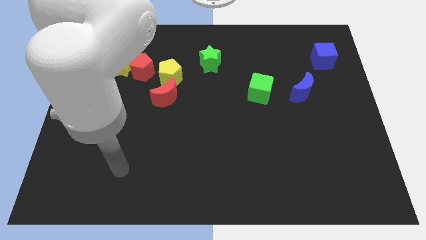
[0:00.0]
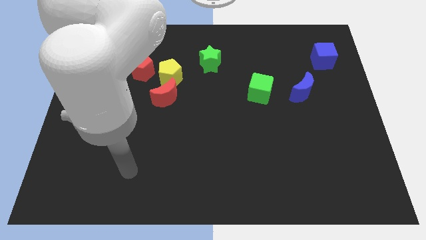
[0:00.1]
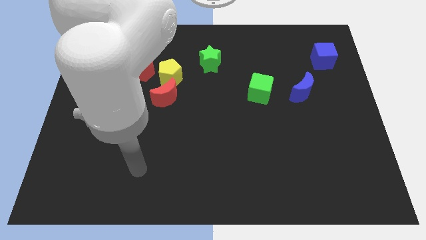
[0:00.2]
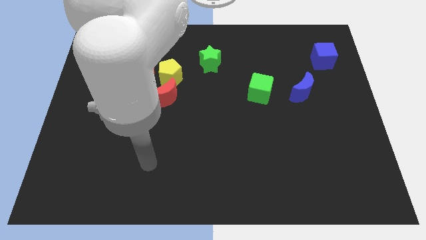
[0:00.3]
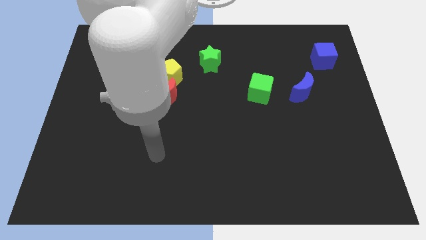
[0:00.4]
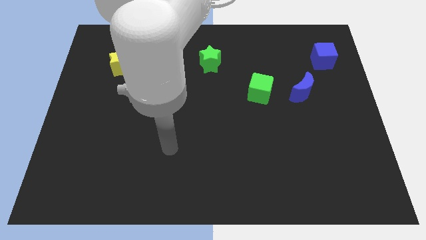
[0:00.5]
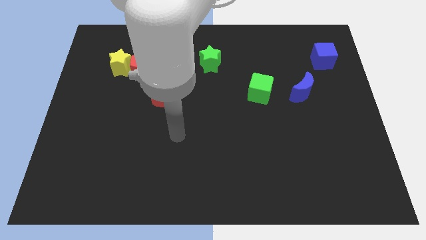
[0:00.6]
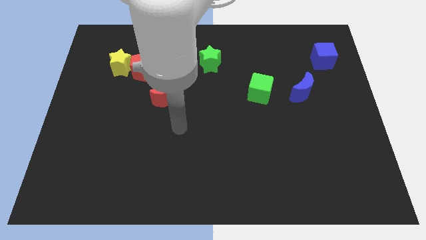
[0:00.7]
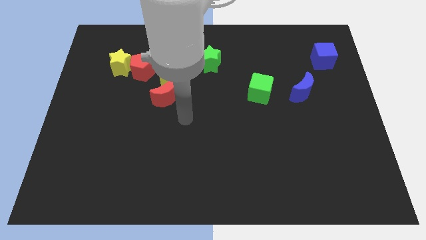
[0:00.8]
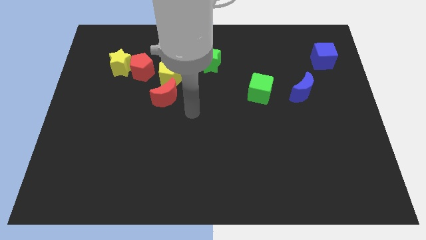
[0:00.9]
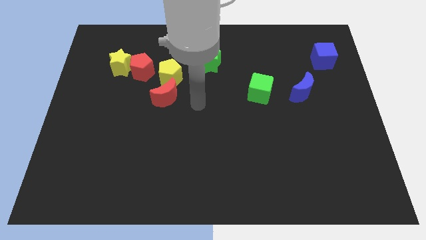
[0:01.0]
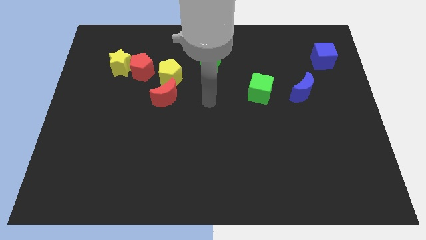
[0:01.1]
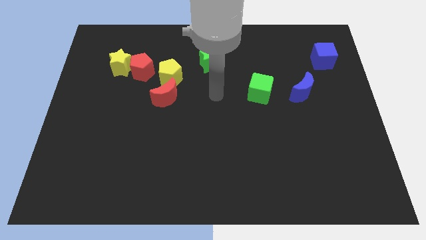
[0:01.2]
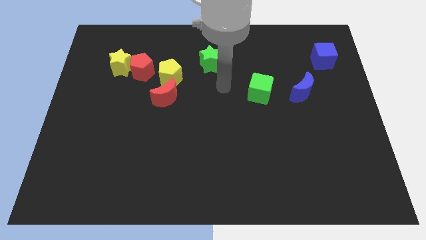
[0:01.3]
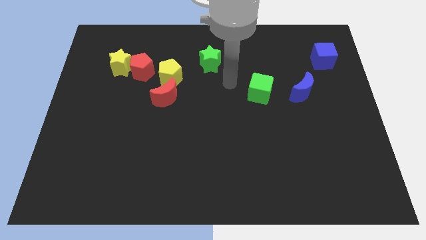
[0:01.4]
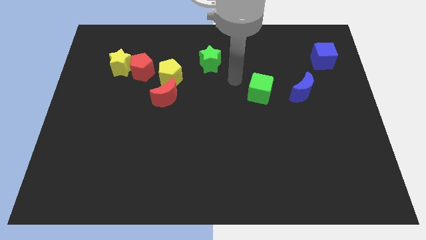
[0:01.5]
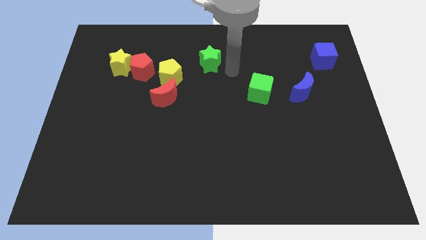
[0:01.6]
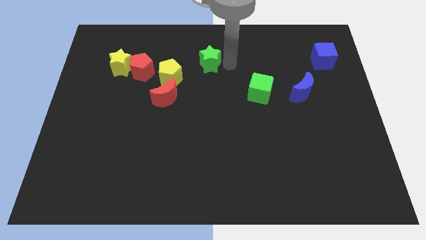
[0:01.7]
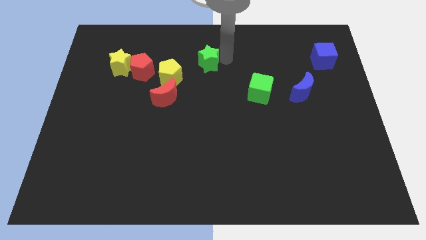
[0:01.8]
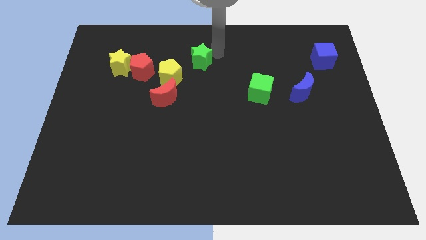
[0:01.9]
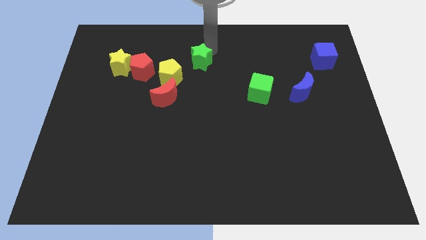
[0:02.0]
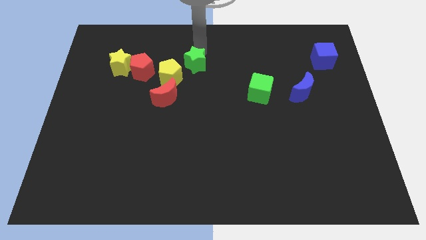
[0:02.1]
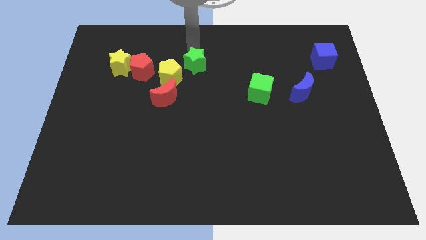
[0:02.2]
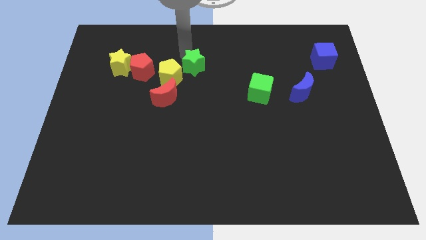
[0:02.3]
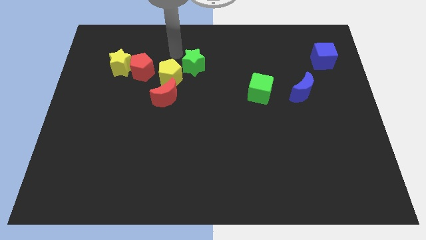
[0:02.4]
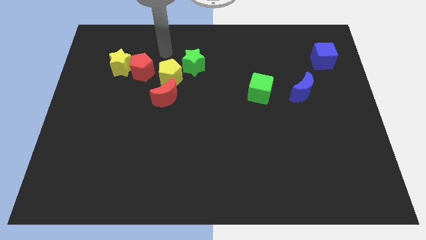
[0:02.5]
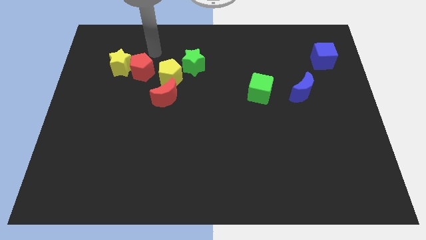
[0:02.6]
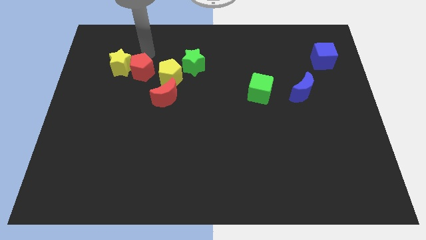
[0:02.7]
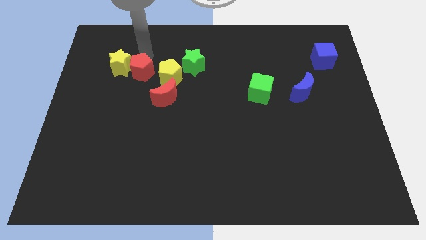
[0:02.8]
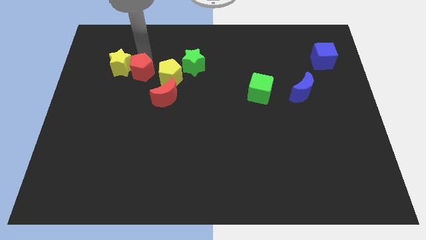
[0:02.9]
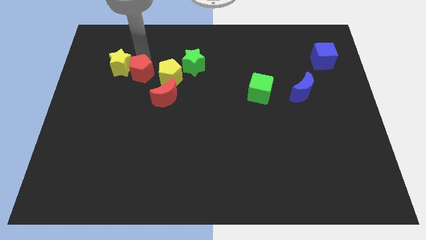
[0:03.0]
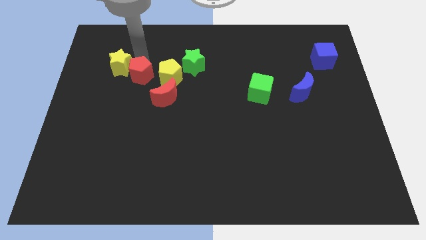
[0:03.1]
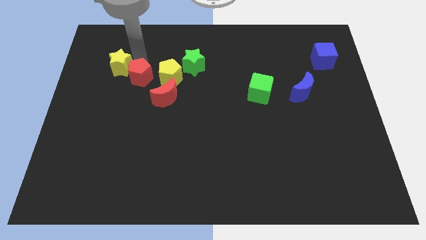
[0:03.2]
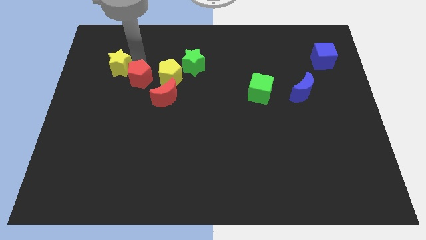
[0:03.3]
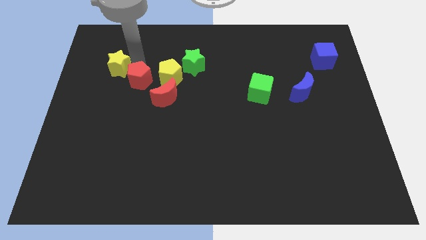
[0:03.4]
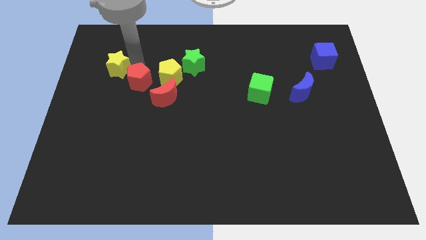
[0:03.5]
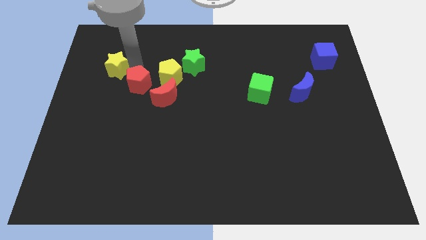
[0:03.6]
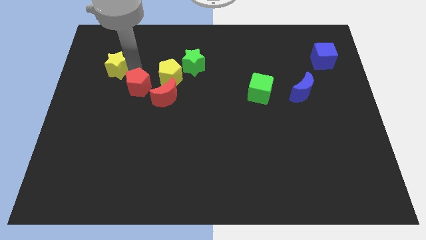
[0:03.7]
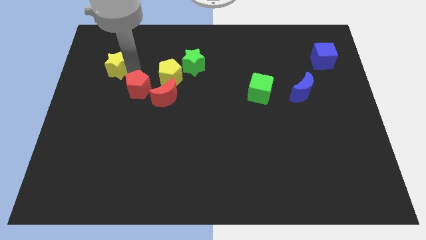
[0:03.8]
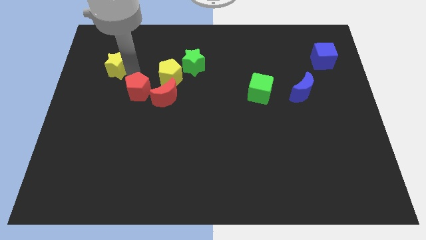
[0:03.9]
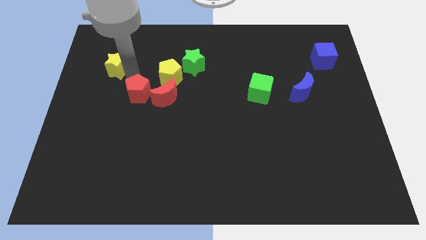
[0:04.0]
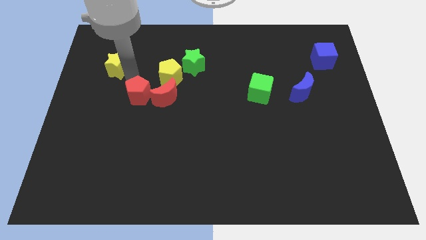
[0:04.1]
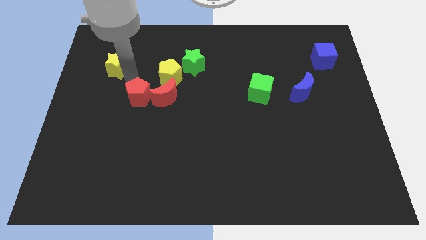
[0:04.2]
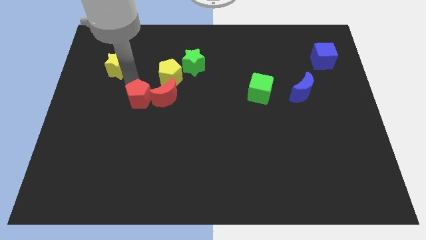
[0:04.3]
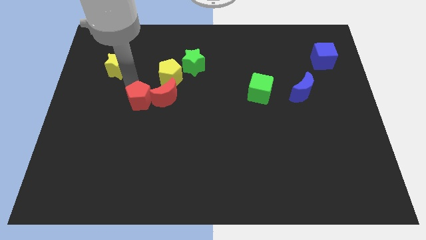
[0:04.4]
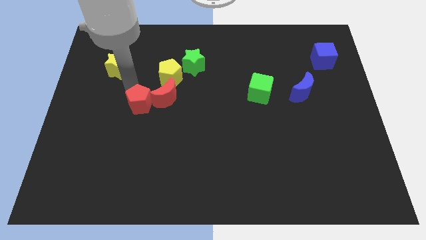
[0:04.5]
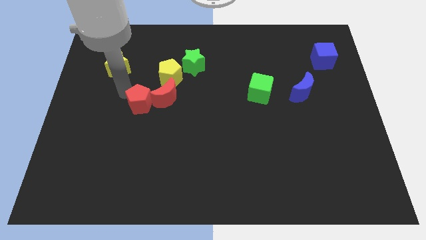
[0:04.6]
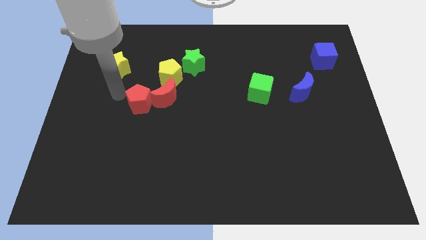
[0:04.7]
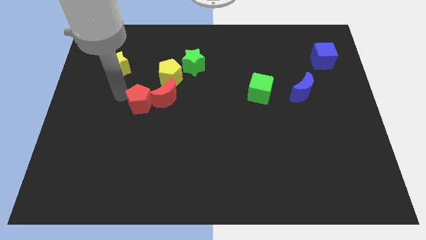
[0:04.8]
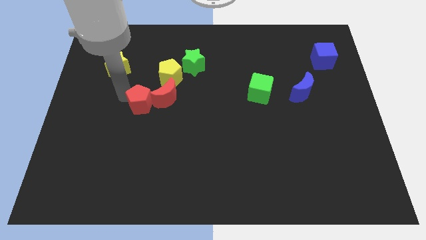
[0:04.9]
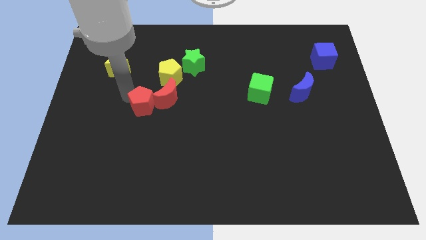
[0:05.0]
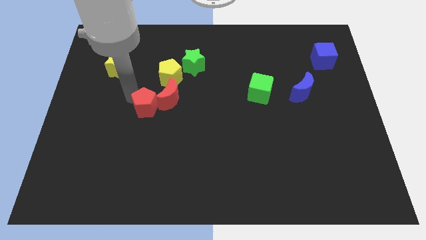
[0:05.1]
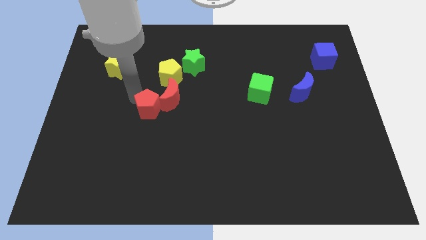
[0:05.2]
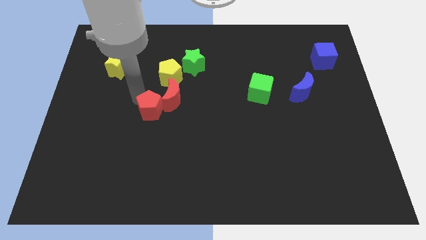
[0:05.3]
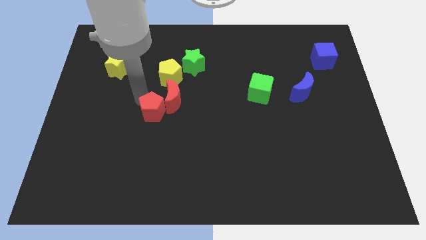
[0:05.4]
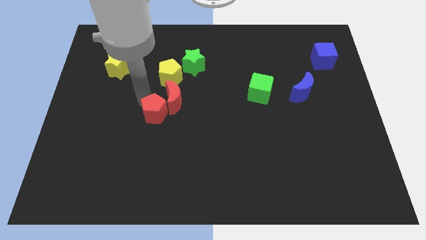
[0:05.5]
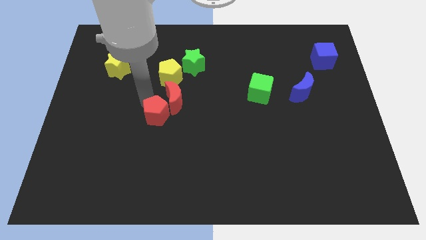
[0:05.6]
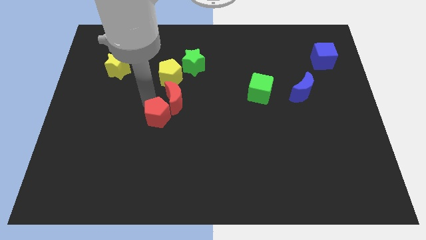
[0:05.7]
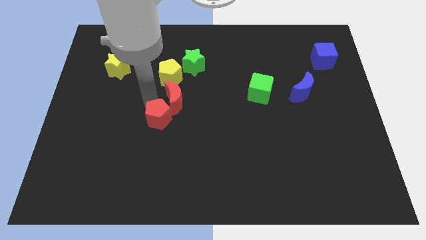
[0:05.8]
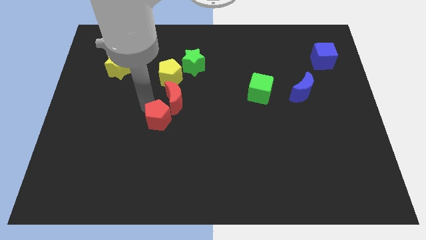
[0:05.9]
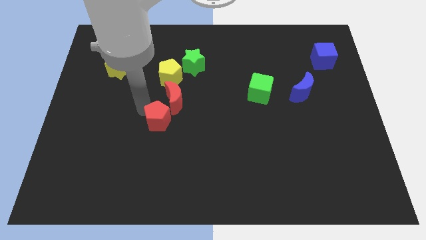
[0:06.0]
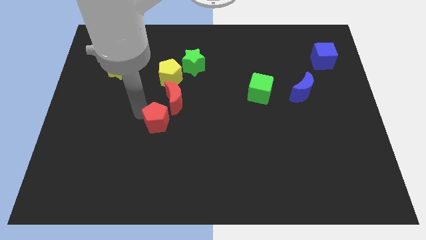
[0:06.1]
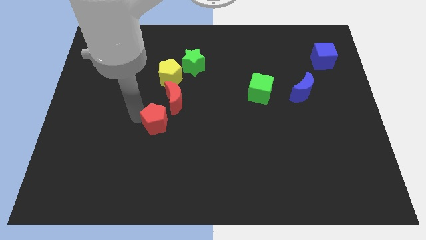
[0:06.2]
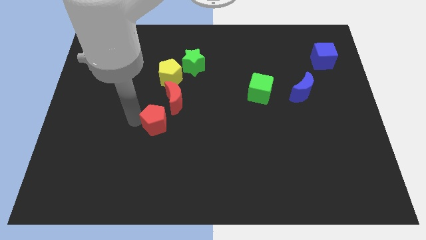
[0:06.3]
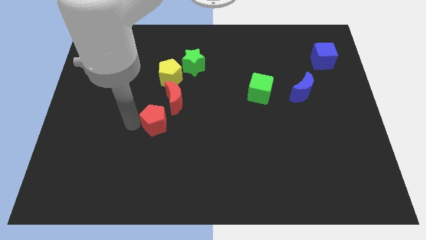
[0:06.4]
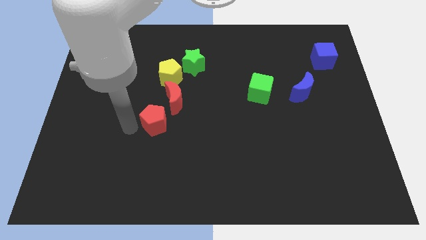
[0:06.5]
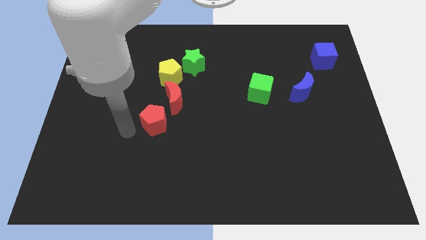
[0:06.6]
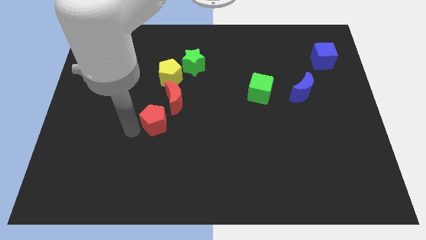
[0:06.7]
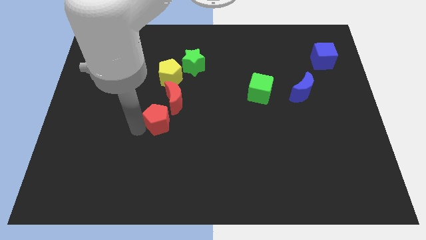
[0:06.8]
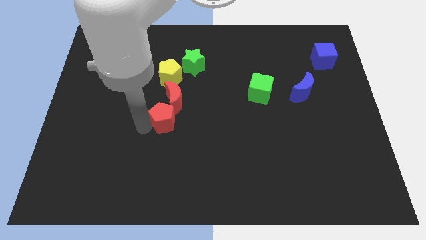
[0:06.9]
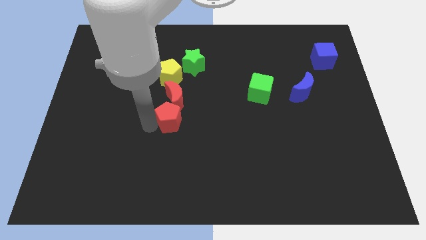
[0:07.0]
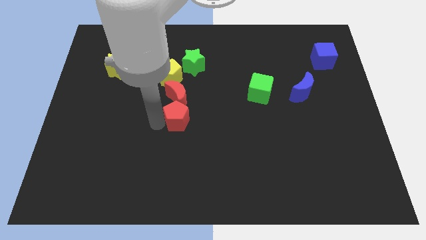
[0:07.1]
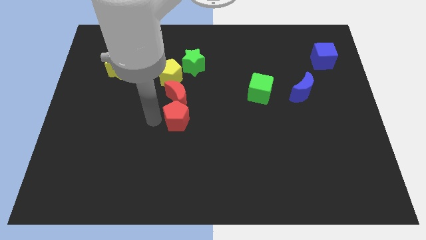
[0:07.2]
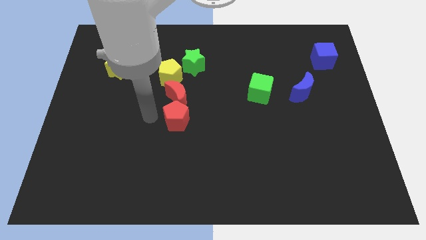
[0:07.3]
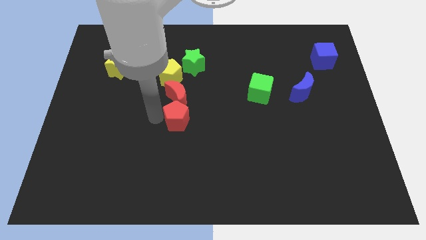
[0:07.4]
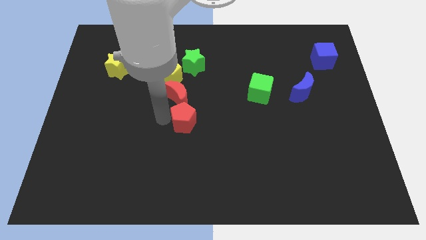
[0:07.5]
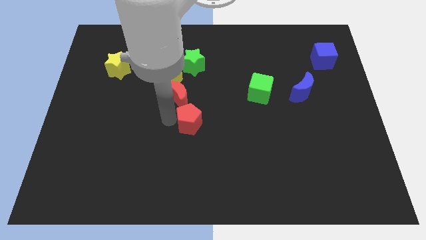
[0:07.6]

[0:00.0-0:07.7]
push the red pentagon diagonally down and right

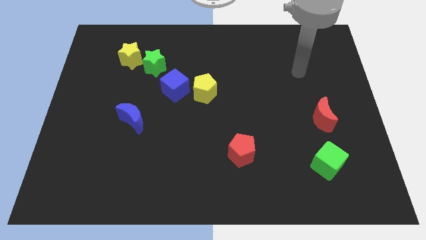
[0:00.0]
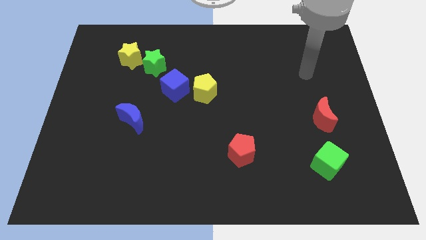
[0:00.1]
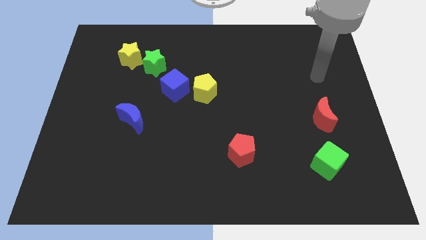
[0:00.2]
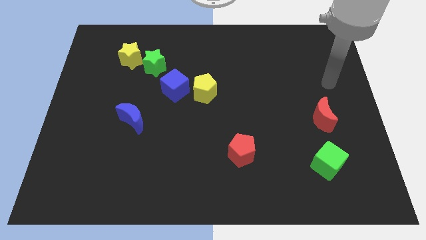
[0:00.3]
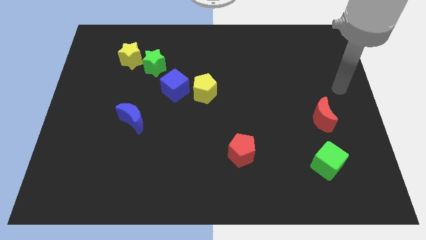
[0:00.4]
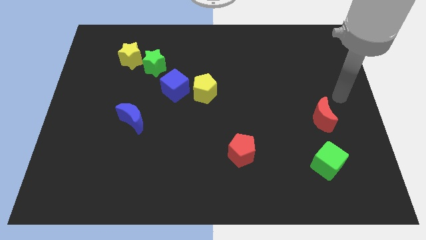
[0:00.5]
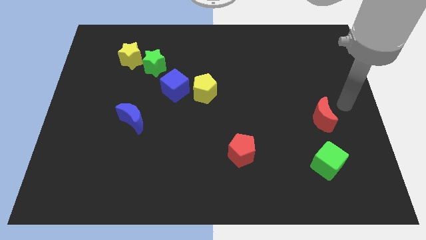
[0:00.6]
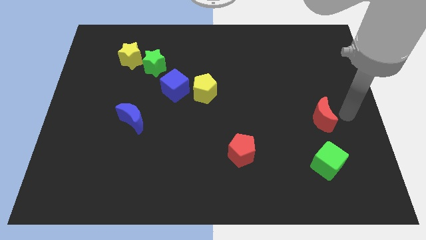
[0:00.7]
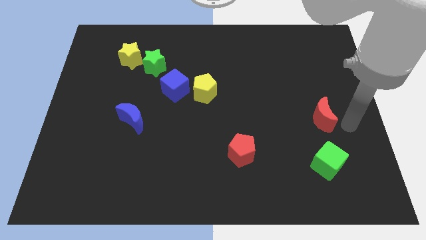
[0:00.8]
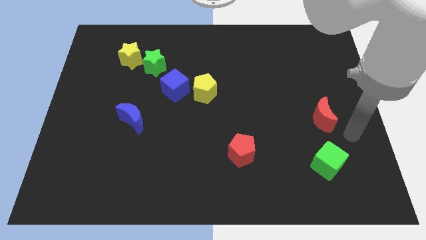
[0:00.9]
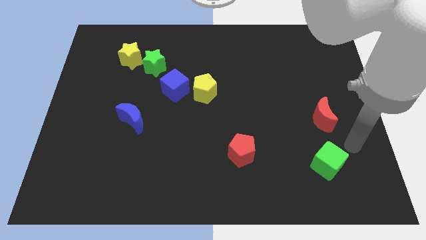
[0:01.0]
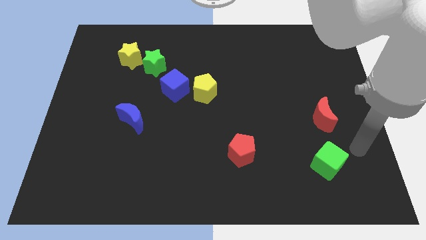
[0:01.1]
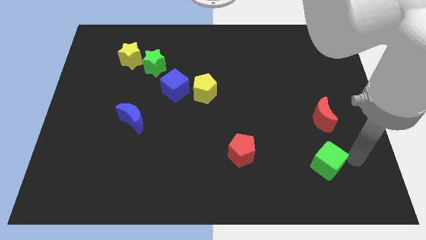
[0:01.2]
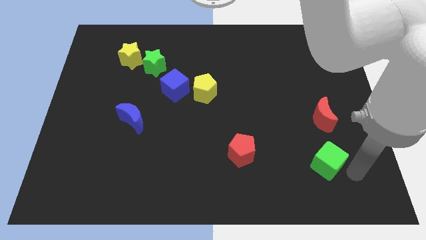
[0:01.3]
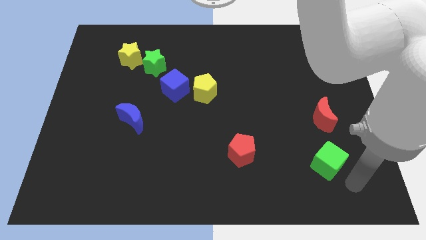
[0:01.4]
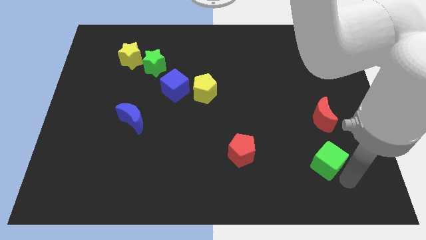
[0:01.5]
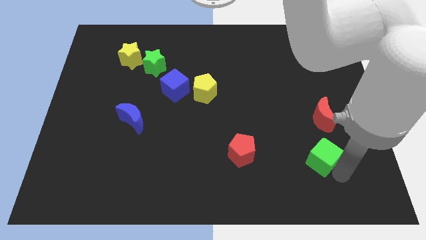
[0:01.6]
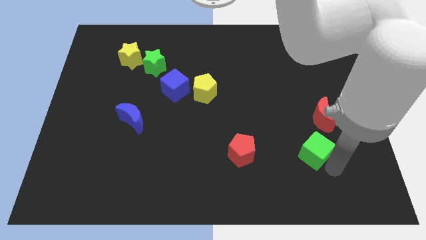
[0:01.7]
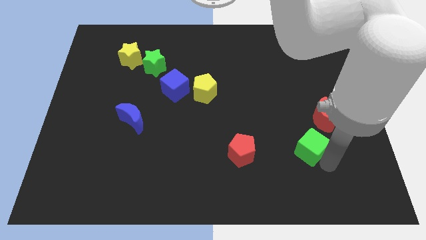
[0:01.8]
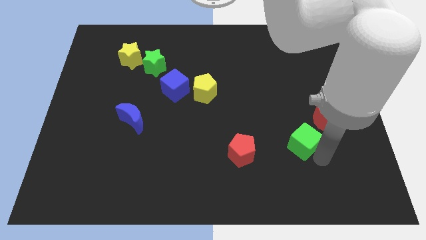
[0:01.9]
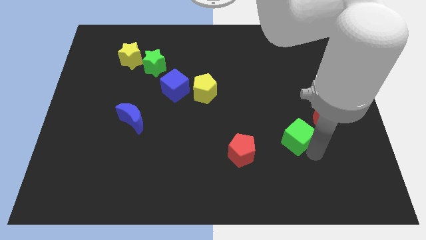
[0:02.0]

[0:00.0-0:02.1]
slightly slide the green cube diagonally up and left
